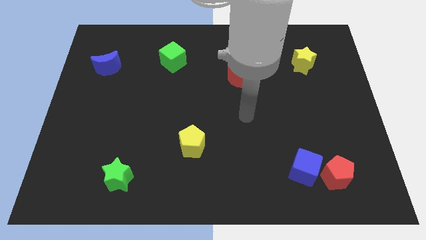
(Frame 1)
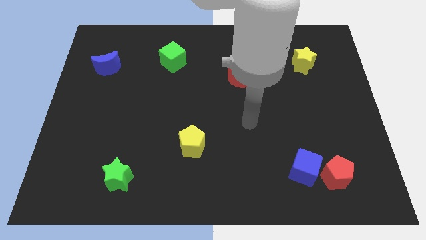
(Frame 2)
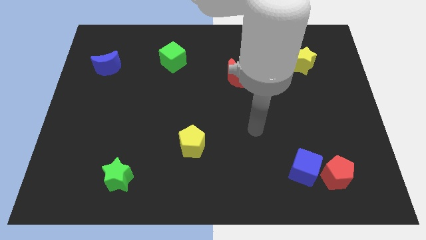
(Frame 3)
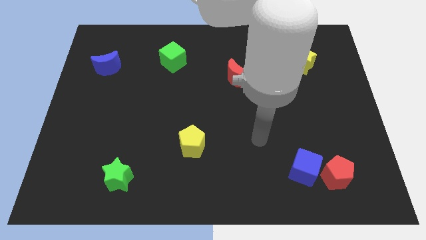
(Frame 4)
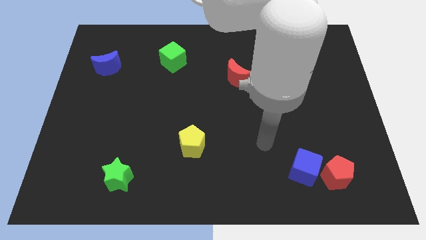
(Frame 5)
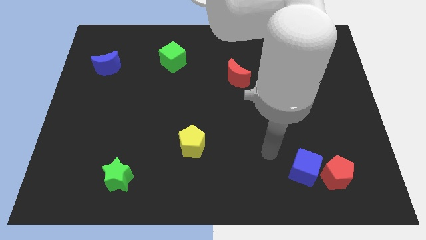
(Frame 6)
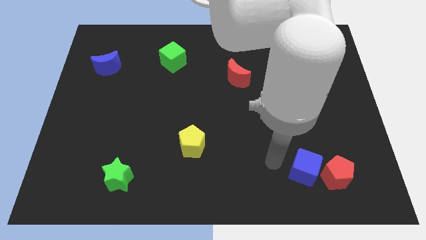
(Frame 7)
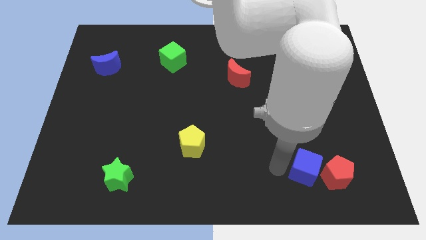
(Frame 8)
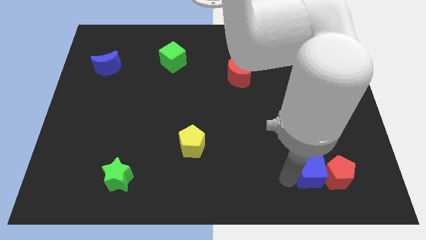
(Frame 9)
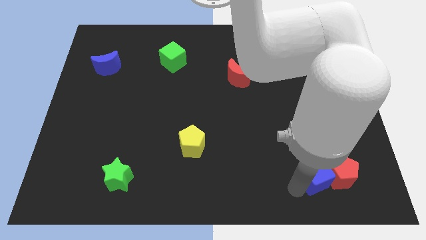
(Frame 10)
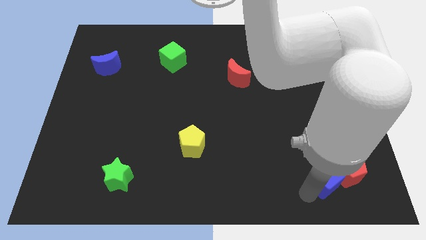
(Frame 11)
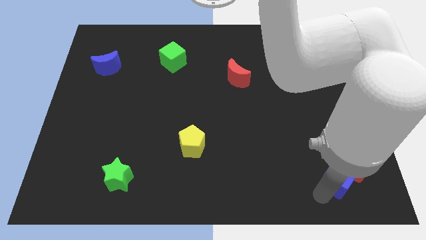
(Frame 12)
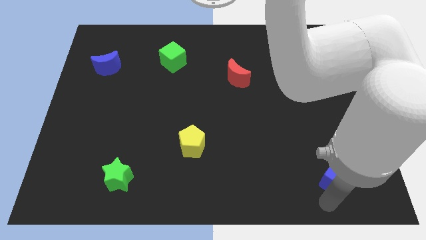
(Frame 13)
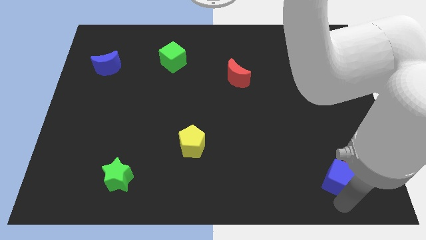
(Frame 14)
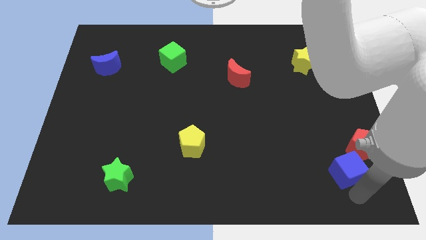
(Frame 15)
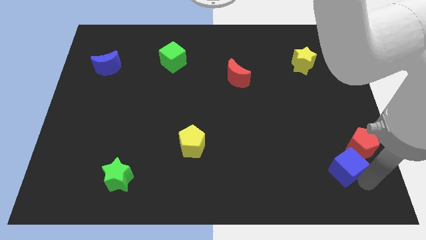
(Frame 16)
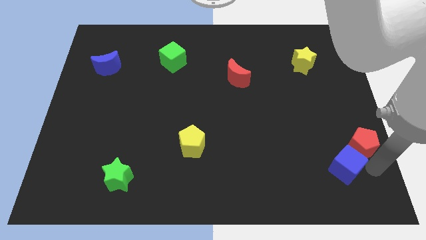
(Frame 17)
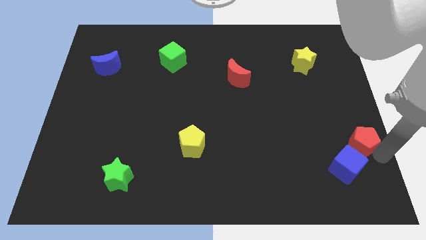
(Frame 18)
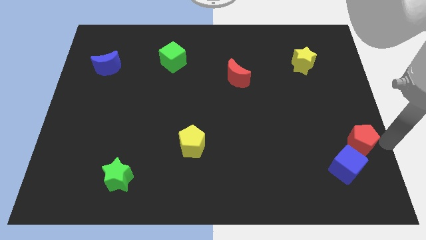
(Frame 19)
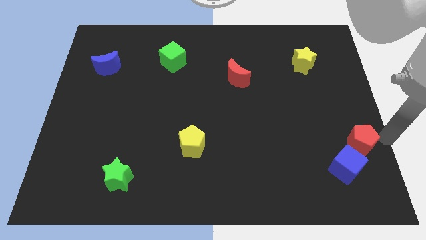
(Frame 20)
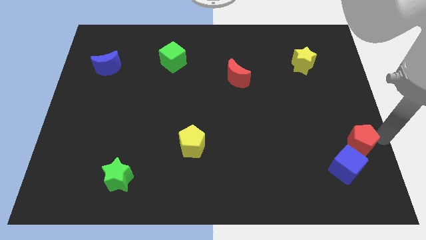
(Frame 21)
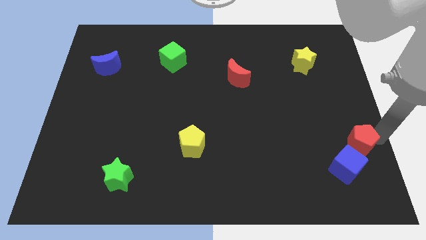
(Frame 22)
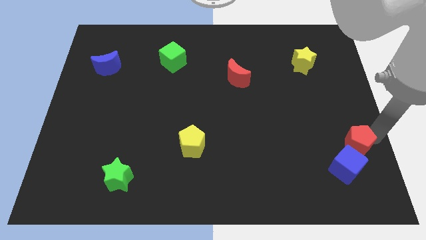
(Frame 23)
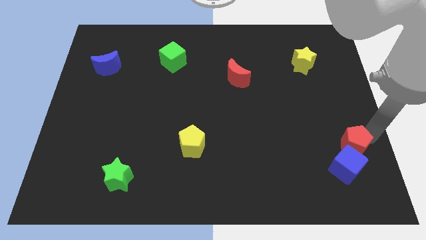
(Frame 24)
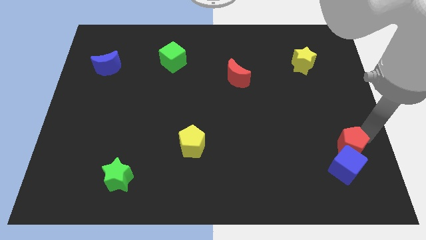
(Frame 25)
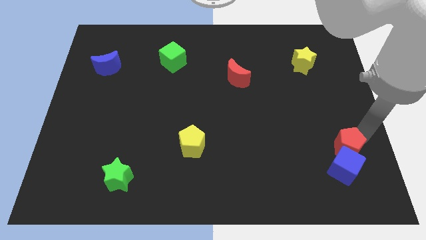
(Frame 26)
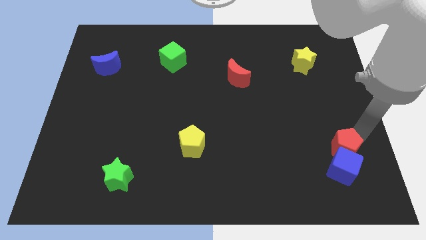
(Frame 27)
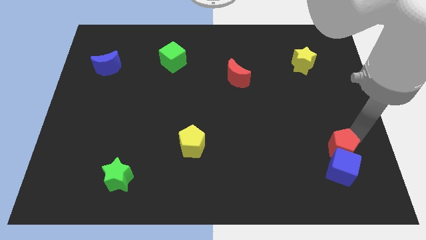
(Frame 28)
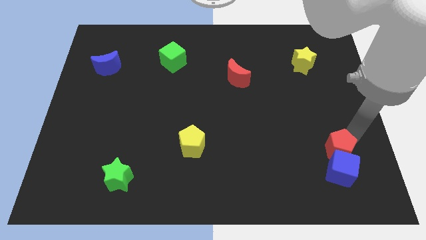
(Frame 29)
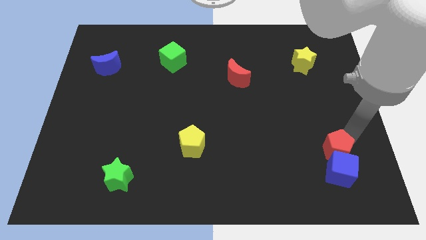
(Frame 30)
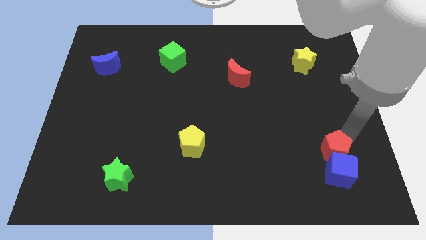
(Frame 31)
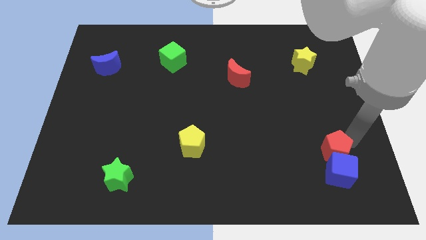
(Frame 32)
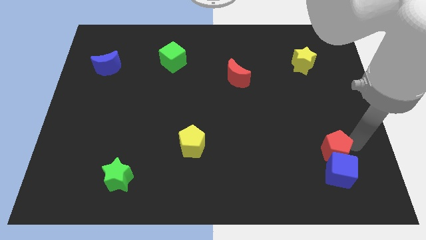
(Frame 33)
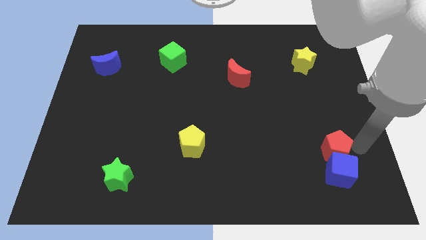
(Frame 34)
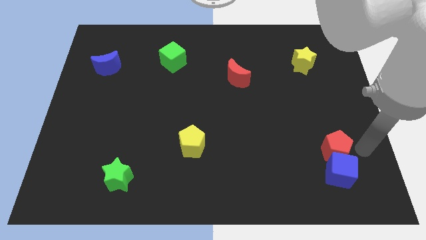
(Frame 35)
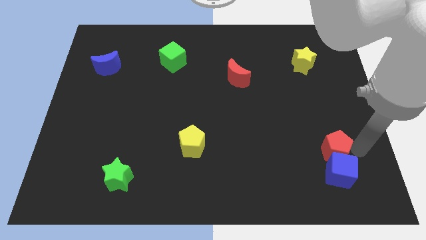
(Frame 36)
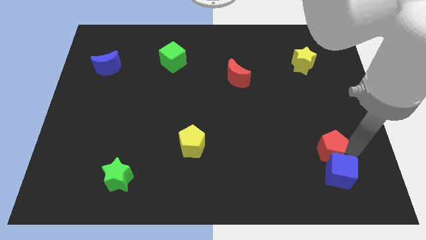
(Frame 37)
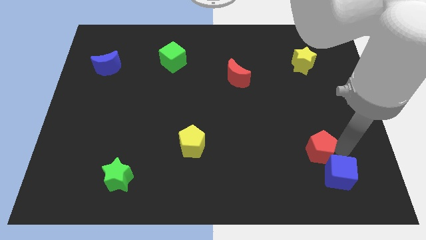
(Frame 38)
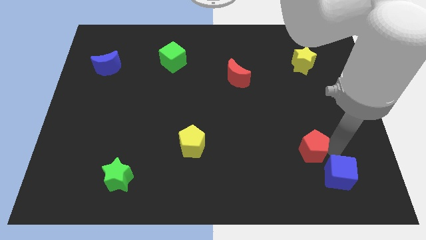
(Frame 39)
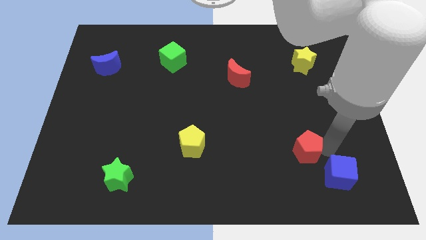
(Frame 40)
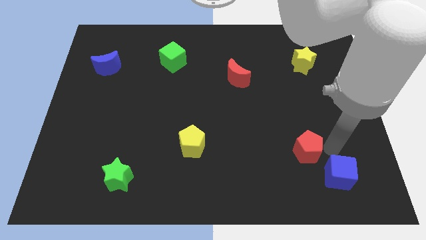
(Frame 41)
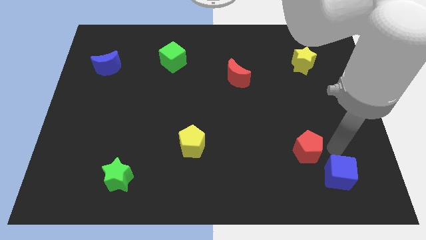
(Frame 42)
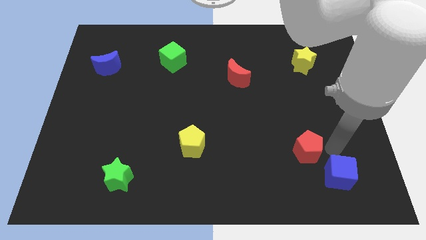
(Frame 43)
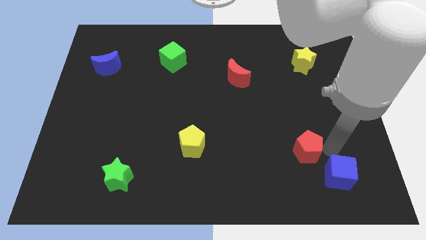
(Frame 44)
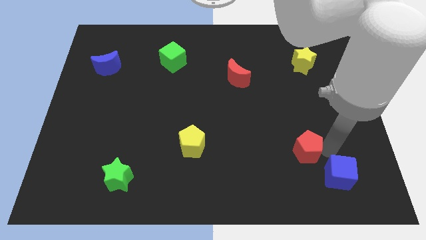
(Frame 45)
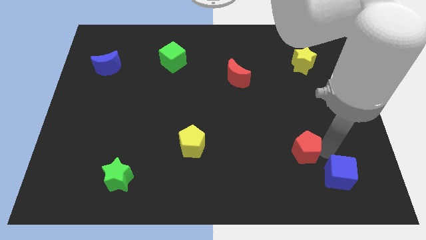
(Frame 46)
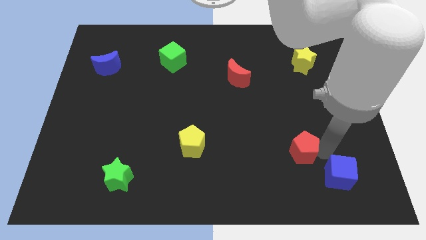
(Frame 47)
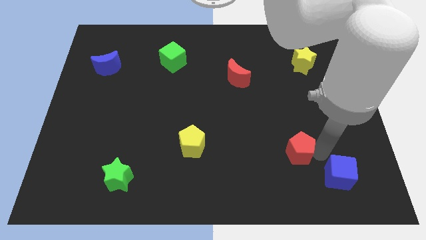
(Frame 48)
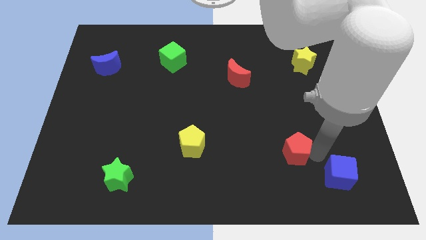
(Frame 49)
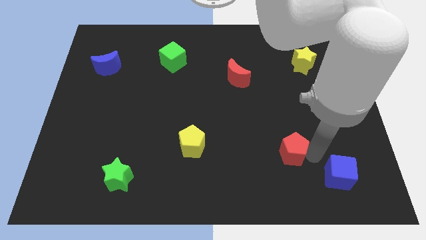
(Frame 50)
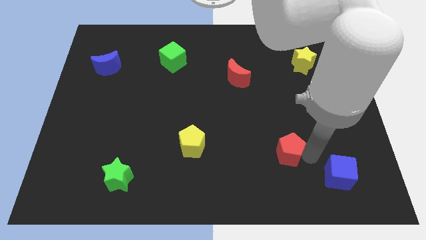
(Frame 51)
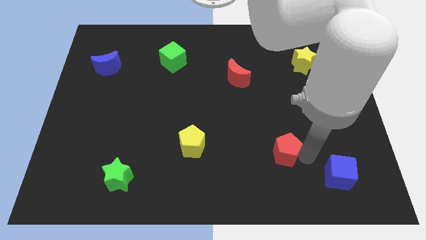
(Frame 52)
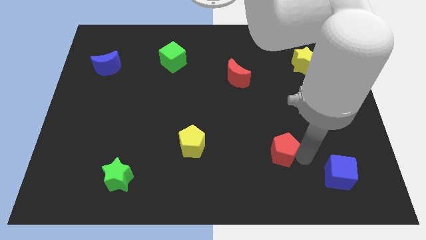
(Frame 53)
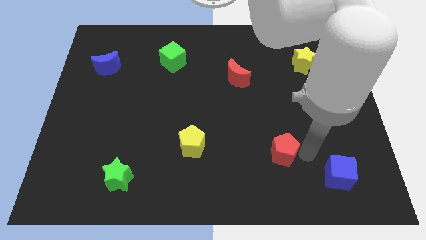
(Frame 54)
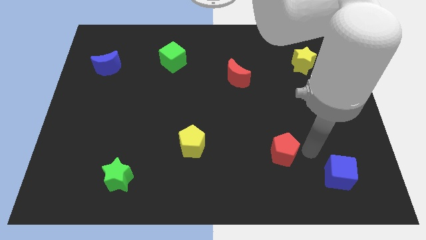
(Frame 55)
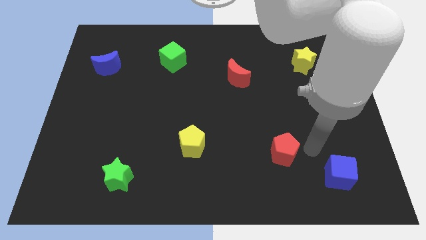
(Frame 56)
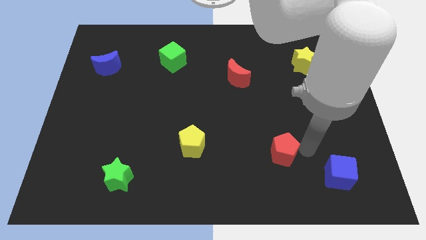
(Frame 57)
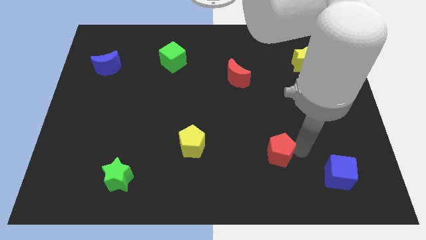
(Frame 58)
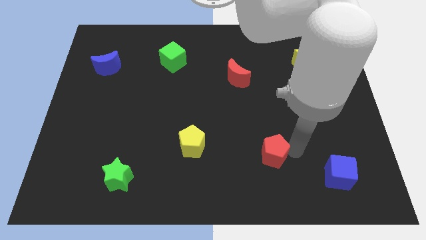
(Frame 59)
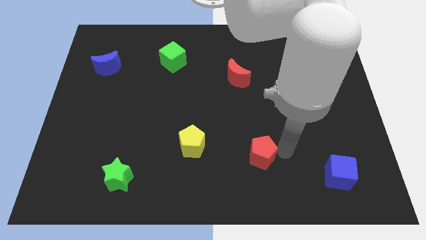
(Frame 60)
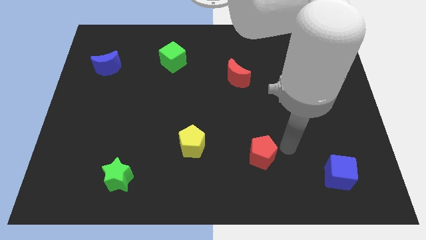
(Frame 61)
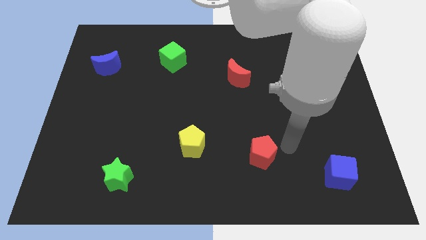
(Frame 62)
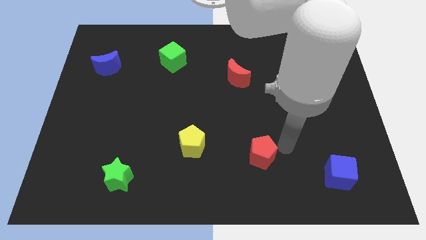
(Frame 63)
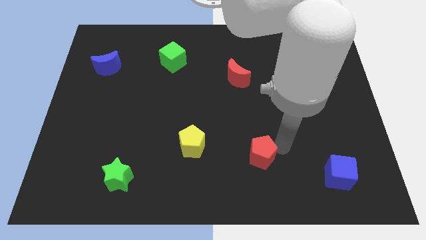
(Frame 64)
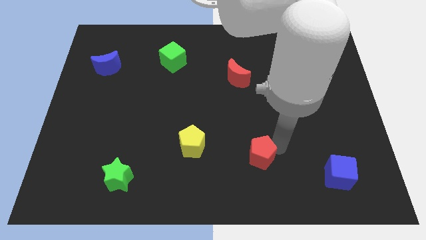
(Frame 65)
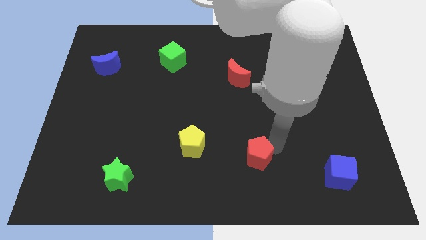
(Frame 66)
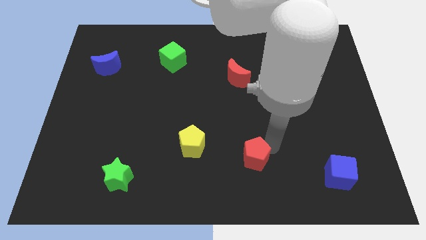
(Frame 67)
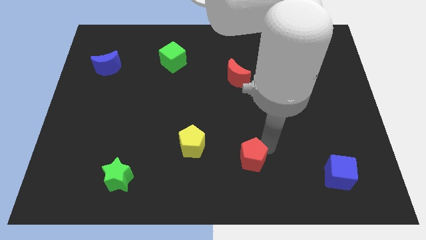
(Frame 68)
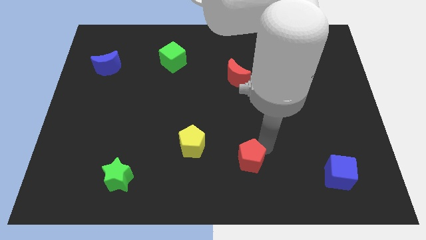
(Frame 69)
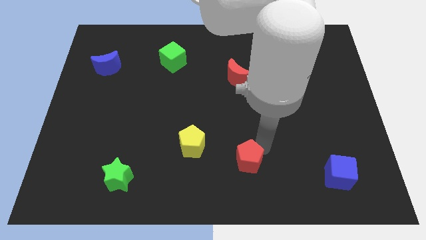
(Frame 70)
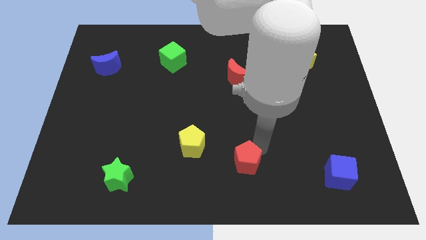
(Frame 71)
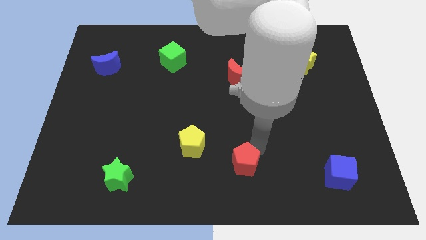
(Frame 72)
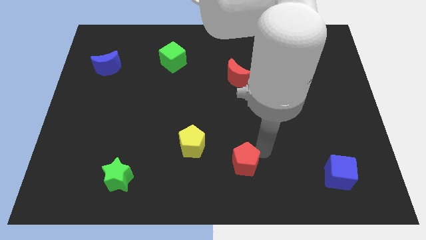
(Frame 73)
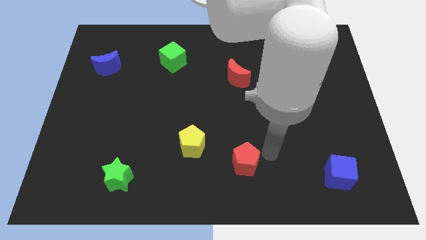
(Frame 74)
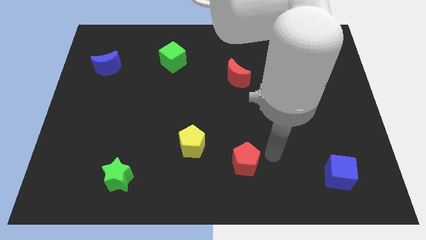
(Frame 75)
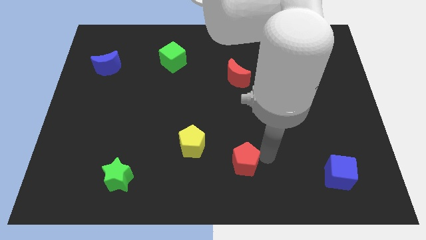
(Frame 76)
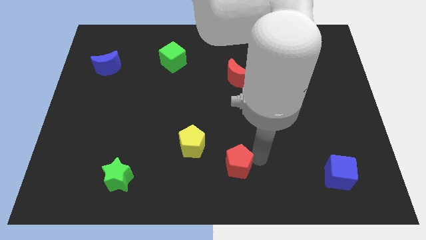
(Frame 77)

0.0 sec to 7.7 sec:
push the red pentagon left

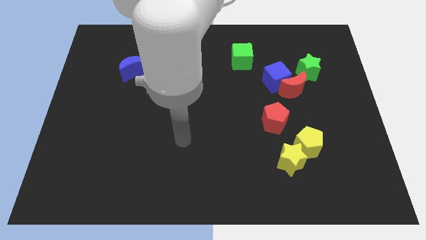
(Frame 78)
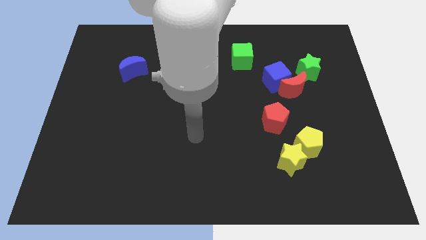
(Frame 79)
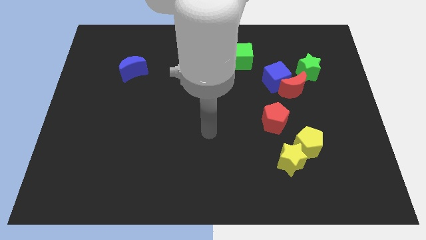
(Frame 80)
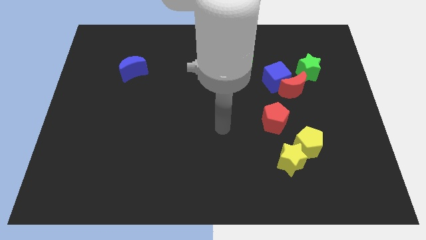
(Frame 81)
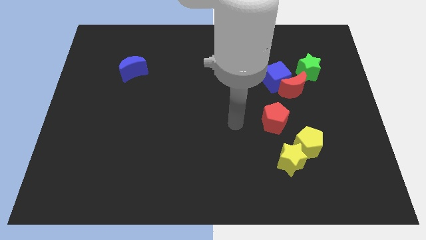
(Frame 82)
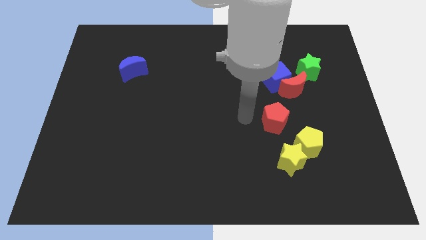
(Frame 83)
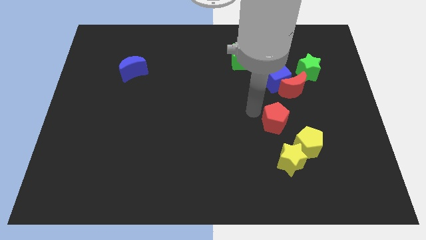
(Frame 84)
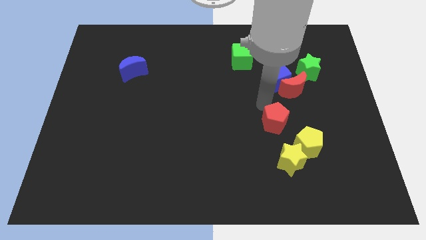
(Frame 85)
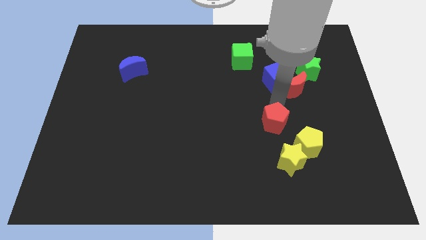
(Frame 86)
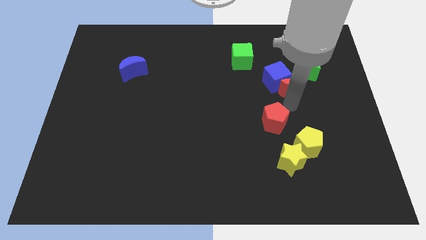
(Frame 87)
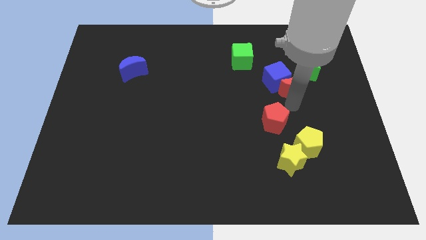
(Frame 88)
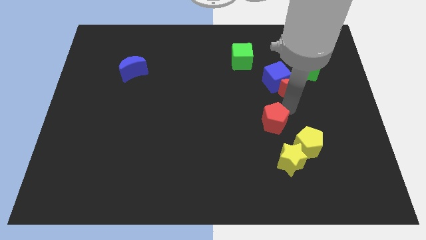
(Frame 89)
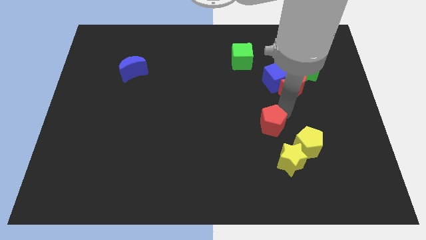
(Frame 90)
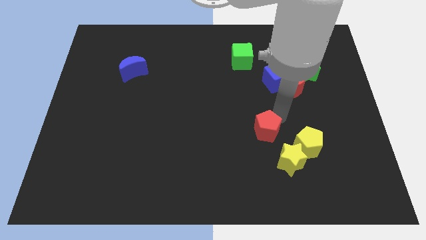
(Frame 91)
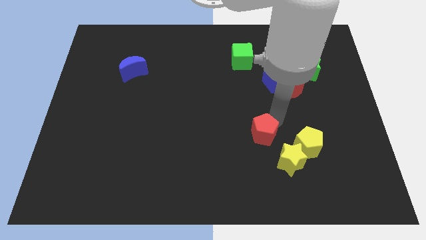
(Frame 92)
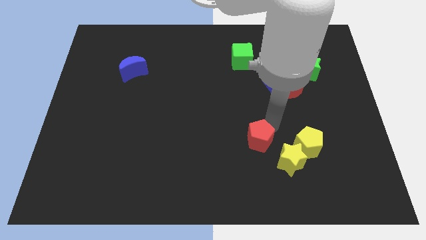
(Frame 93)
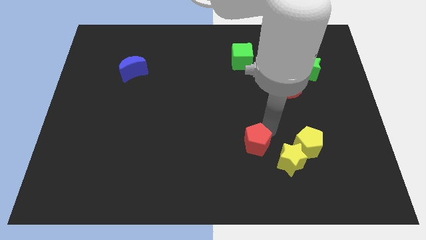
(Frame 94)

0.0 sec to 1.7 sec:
move the red pentagon downwards and to the left a little bit
